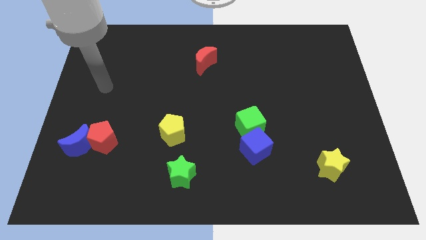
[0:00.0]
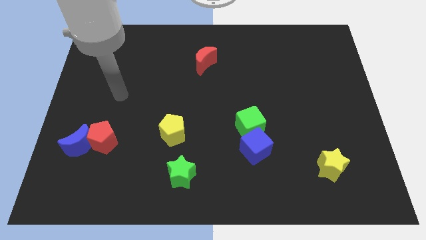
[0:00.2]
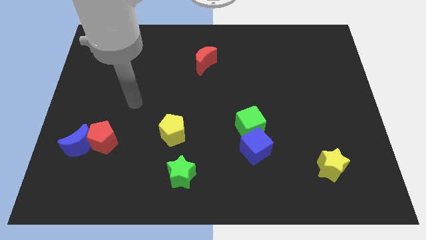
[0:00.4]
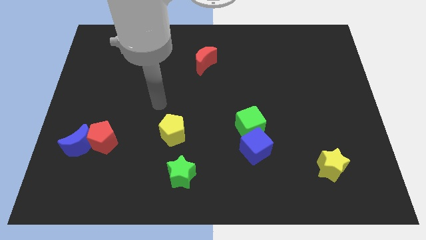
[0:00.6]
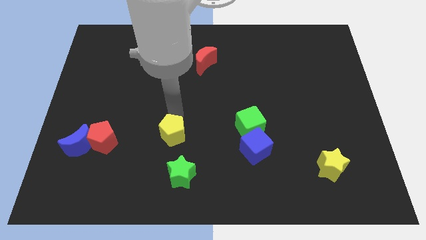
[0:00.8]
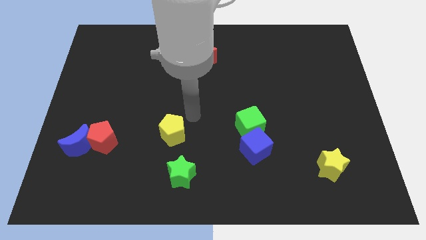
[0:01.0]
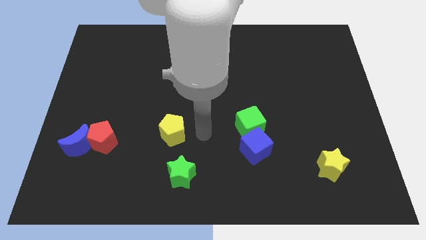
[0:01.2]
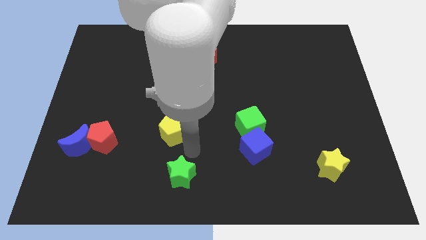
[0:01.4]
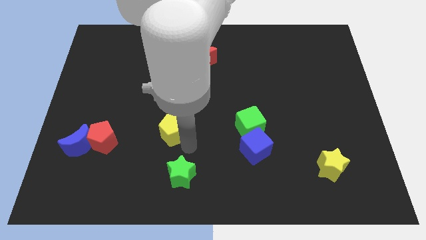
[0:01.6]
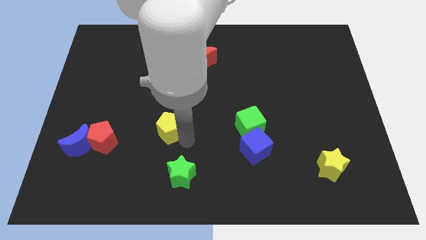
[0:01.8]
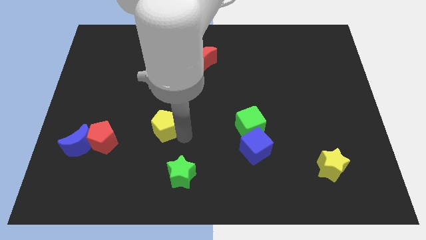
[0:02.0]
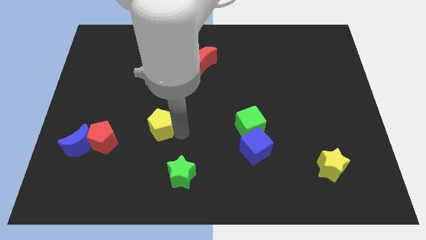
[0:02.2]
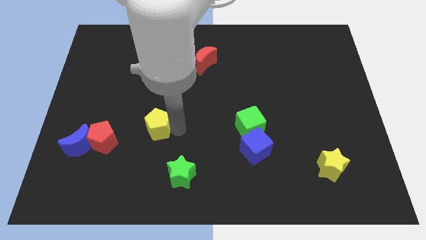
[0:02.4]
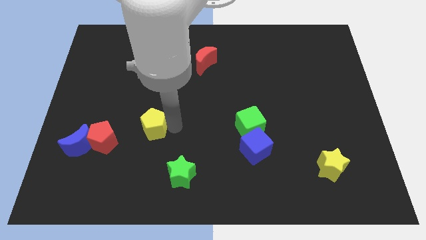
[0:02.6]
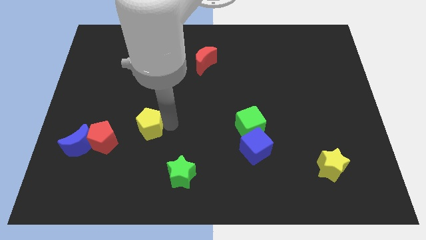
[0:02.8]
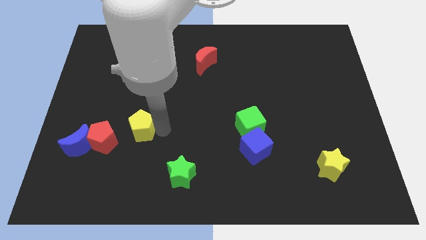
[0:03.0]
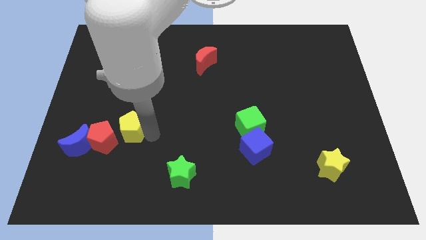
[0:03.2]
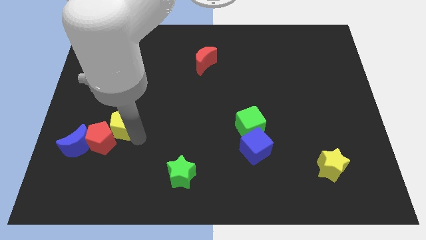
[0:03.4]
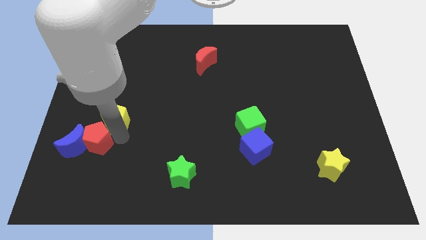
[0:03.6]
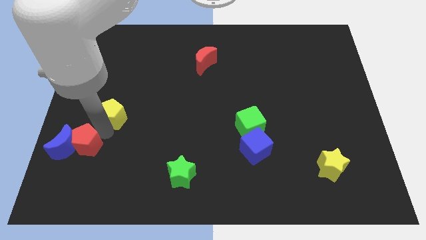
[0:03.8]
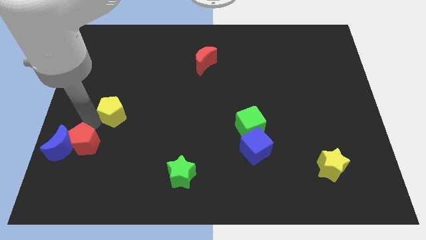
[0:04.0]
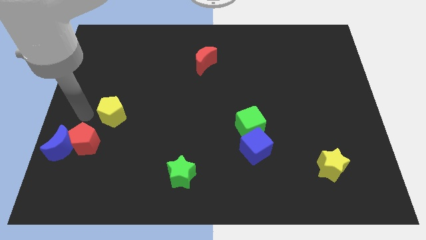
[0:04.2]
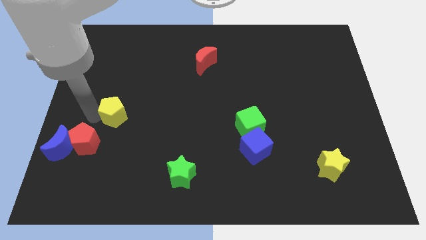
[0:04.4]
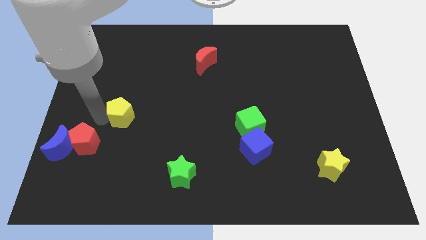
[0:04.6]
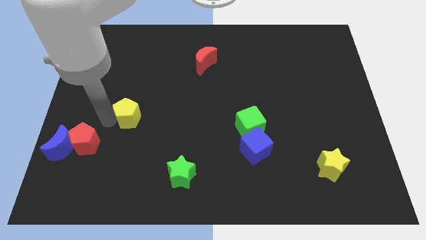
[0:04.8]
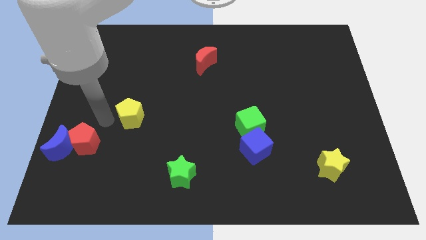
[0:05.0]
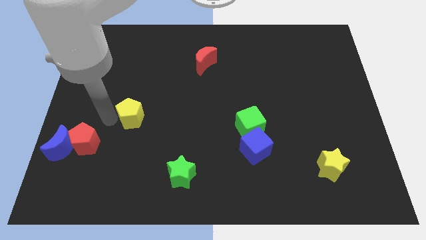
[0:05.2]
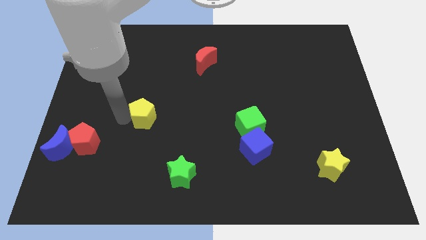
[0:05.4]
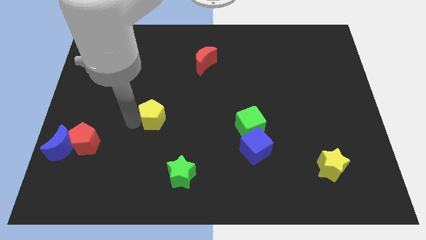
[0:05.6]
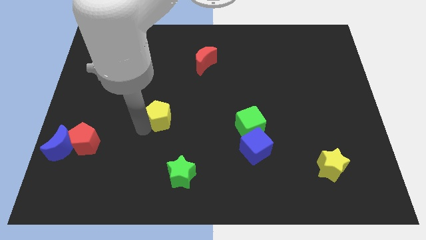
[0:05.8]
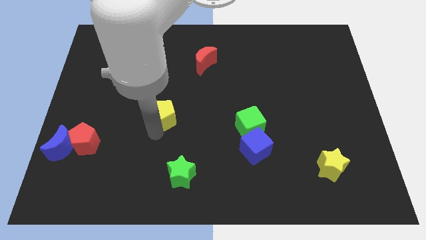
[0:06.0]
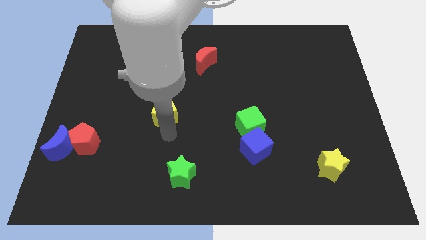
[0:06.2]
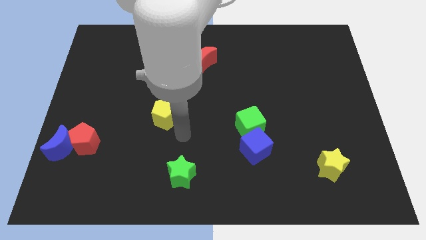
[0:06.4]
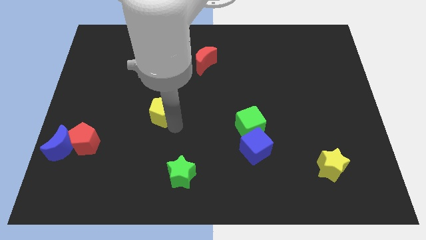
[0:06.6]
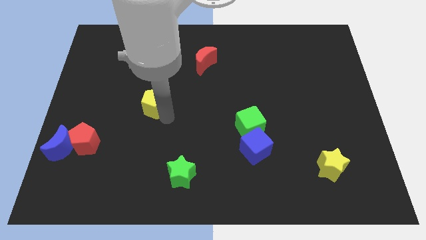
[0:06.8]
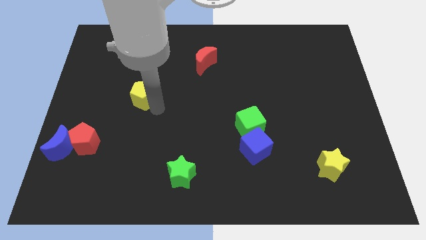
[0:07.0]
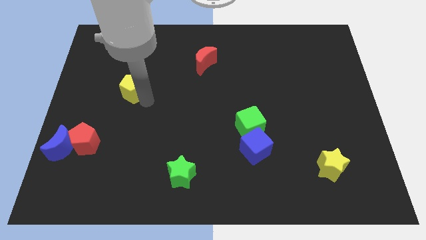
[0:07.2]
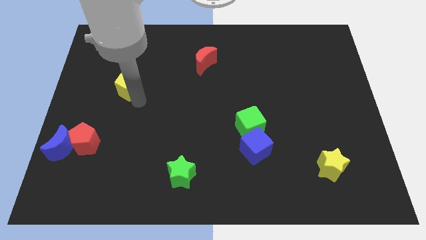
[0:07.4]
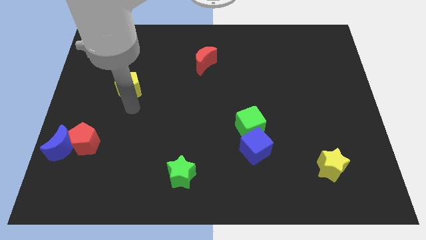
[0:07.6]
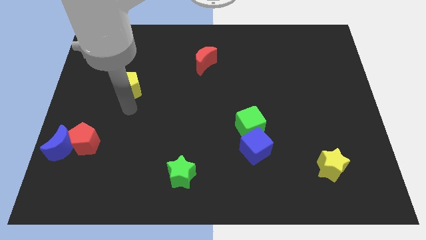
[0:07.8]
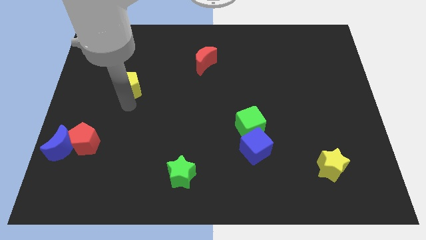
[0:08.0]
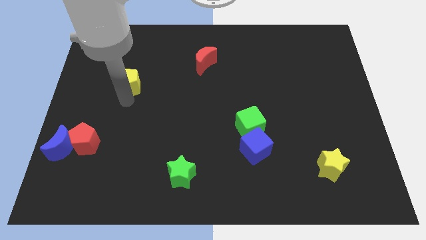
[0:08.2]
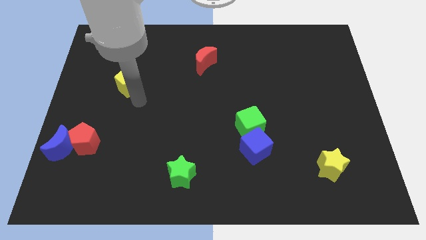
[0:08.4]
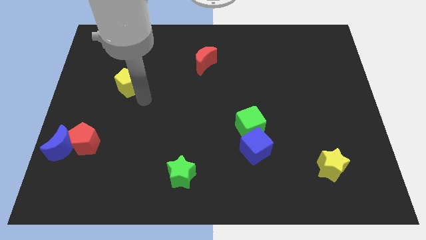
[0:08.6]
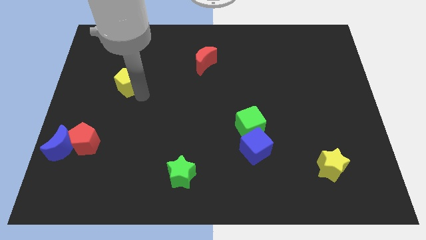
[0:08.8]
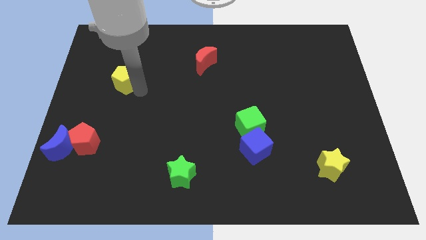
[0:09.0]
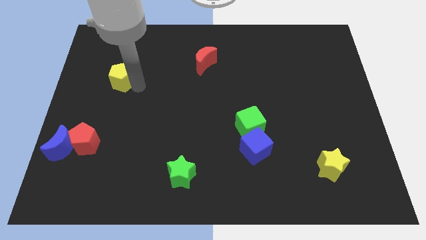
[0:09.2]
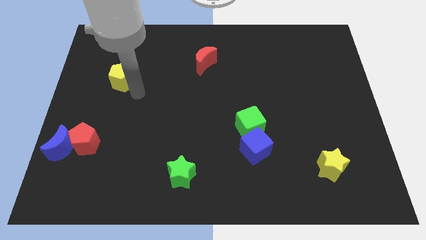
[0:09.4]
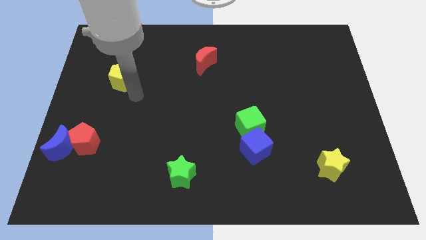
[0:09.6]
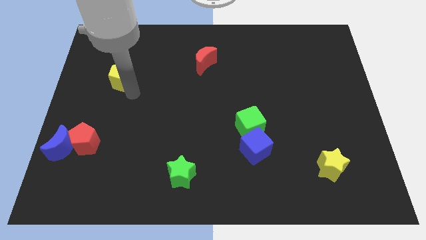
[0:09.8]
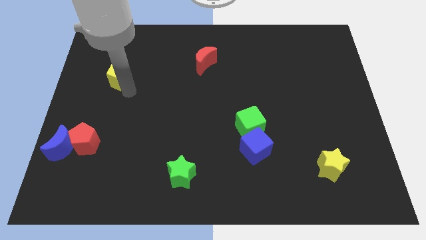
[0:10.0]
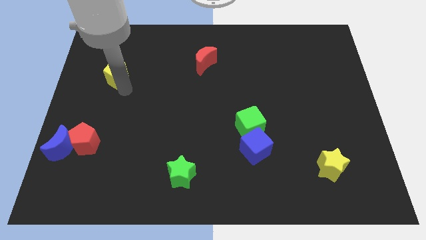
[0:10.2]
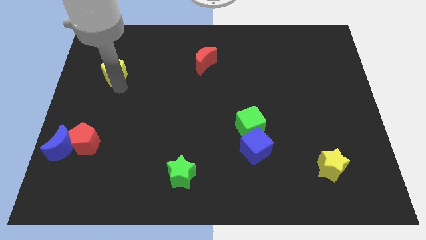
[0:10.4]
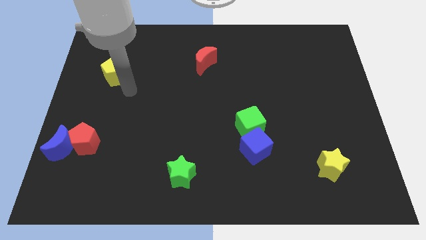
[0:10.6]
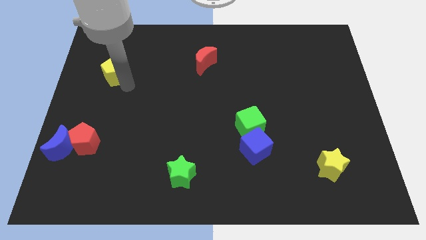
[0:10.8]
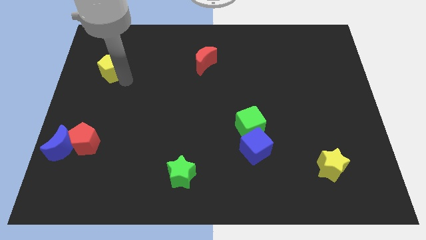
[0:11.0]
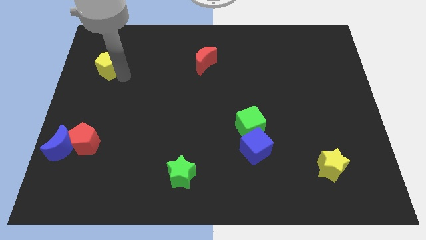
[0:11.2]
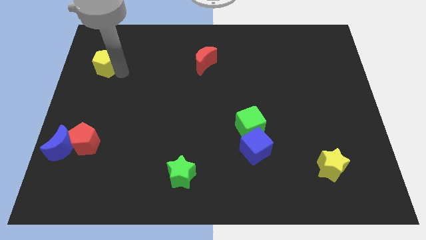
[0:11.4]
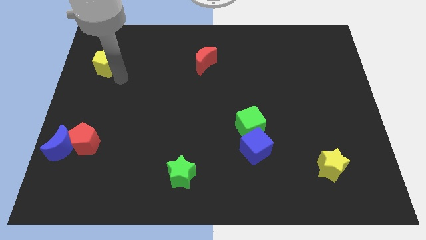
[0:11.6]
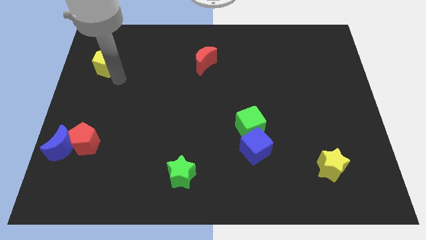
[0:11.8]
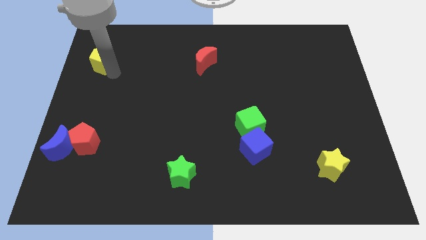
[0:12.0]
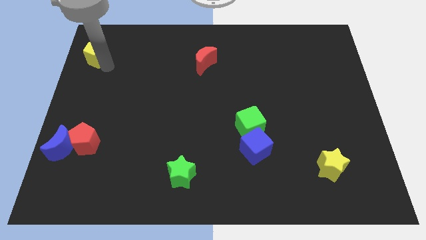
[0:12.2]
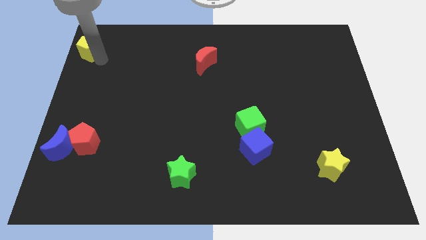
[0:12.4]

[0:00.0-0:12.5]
push the yellow pentagon to the top left corner
